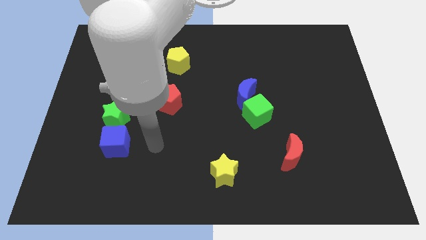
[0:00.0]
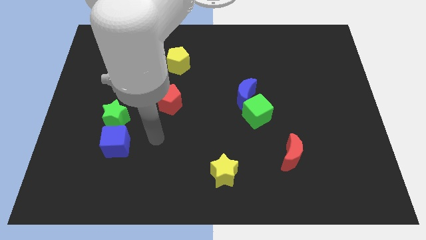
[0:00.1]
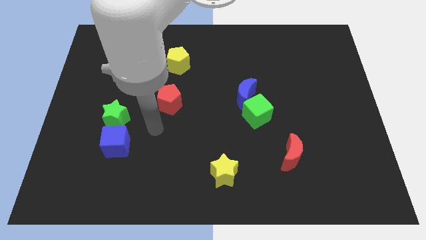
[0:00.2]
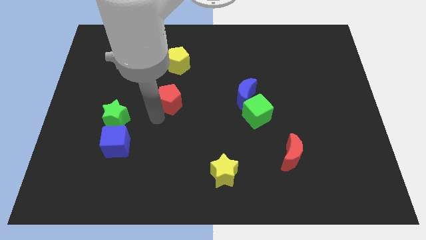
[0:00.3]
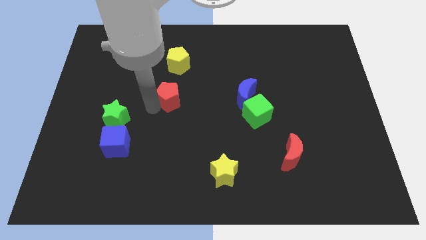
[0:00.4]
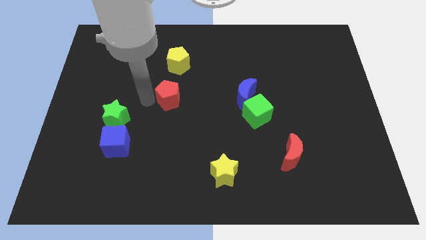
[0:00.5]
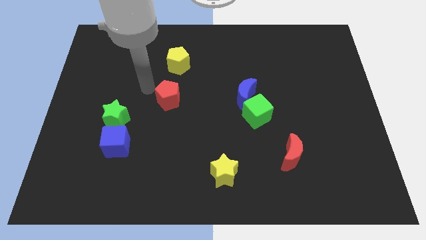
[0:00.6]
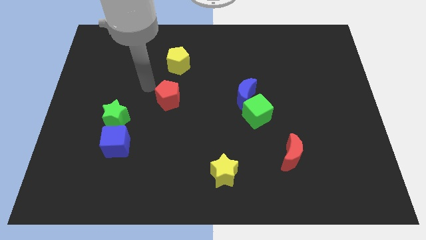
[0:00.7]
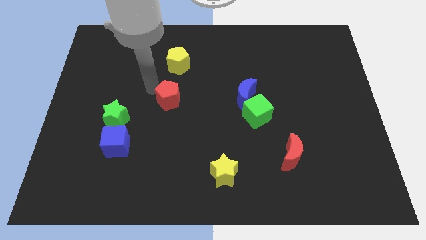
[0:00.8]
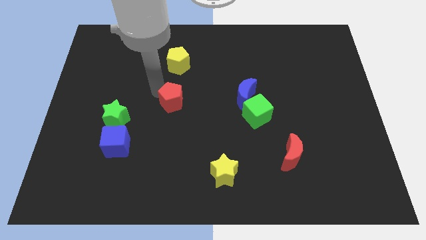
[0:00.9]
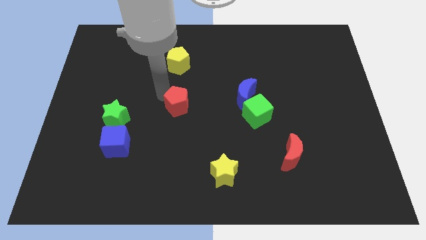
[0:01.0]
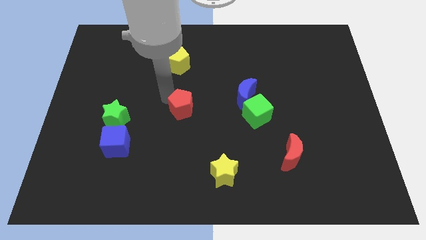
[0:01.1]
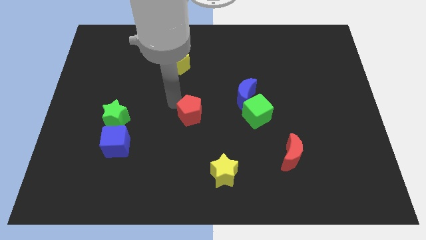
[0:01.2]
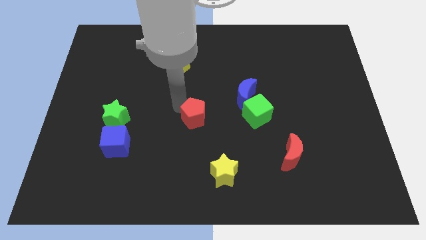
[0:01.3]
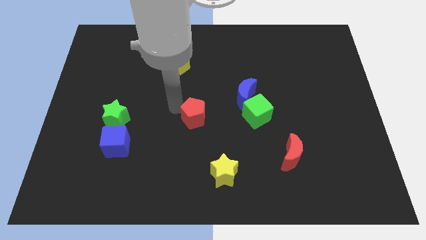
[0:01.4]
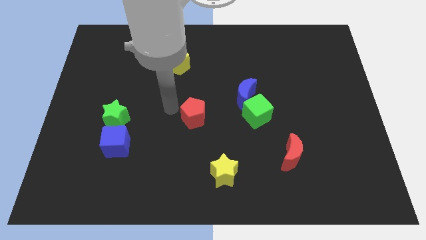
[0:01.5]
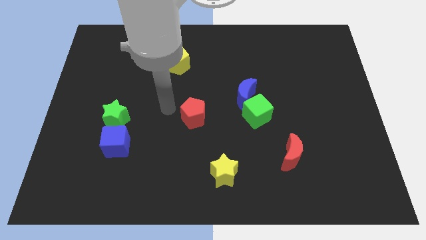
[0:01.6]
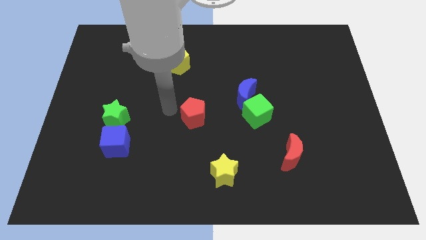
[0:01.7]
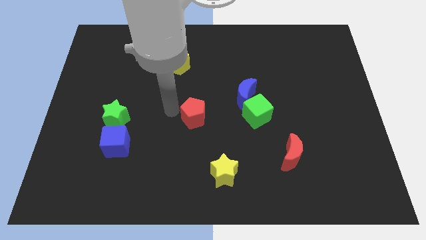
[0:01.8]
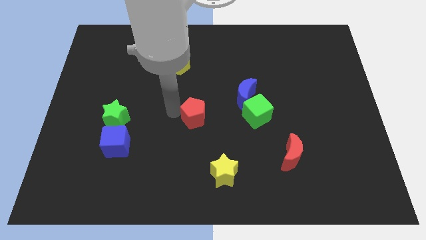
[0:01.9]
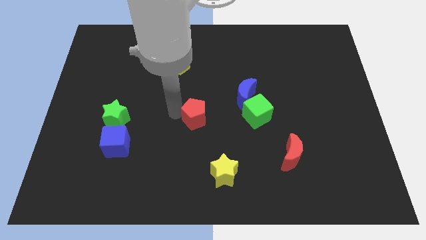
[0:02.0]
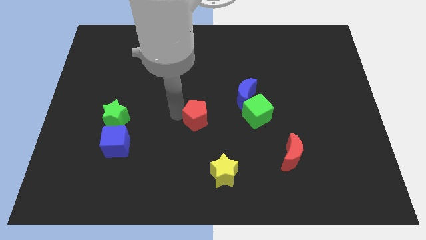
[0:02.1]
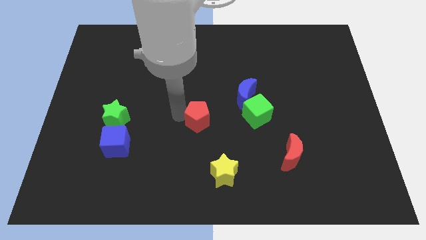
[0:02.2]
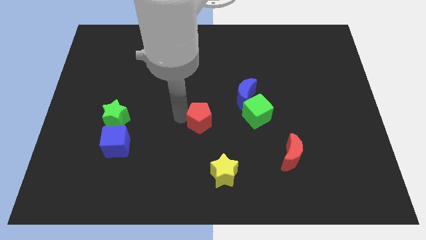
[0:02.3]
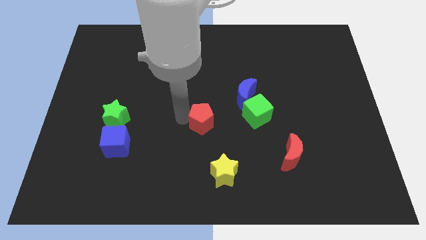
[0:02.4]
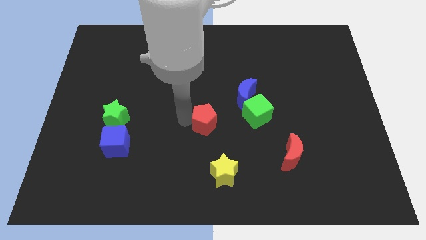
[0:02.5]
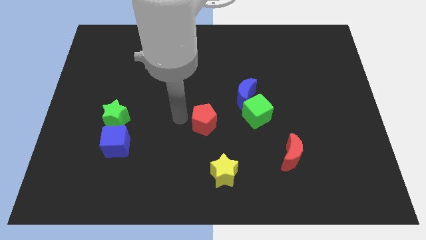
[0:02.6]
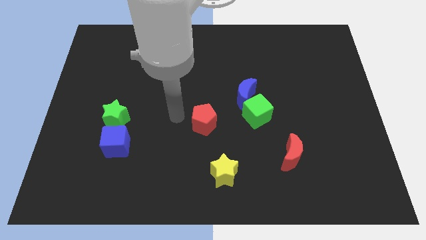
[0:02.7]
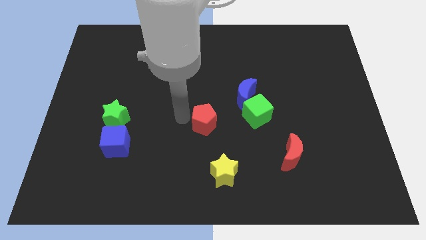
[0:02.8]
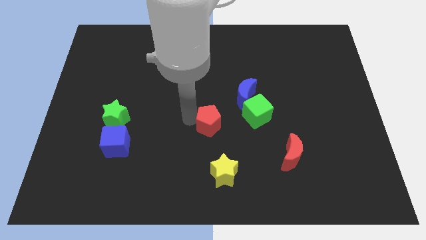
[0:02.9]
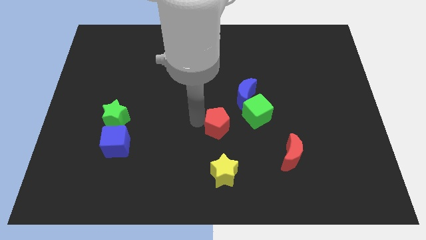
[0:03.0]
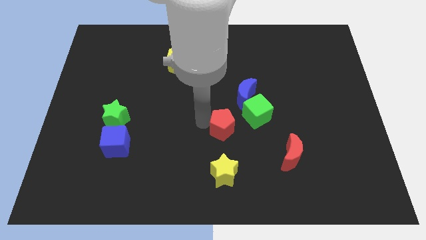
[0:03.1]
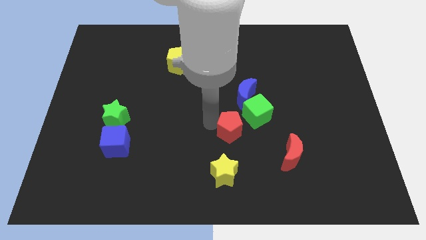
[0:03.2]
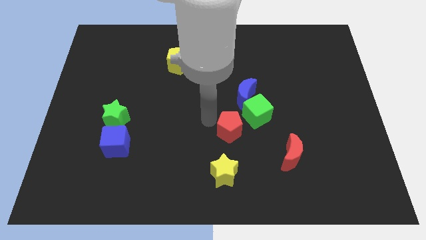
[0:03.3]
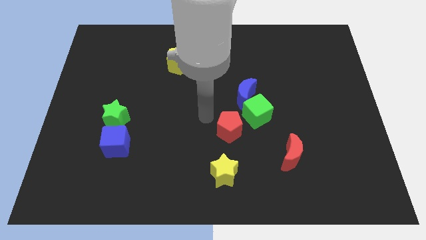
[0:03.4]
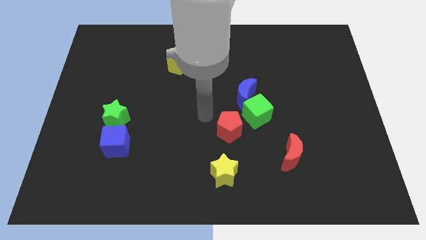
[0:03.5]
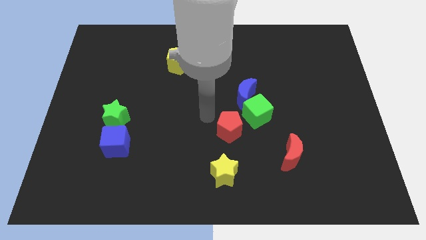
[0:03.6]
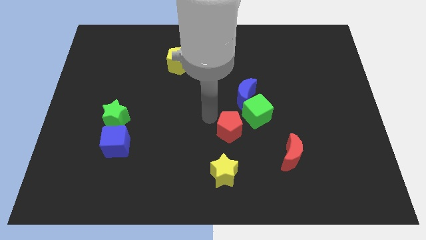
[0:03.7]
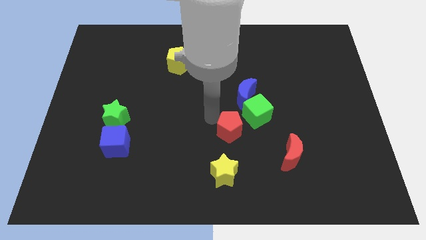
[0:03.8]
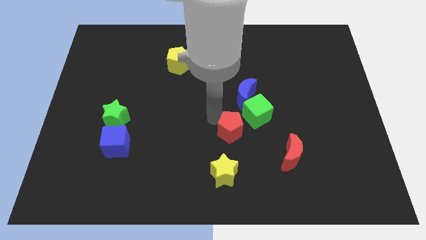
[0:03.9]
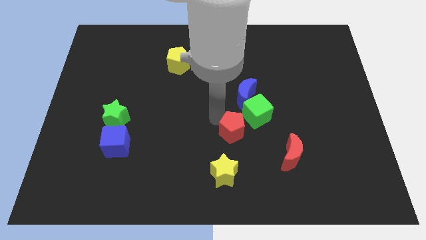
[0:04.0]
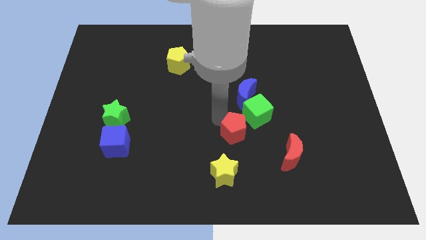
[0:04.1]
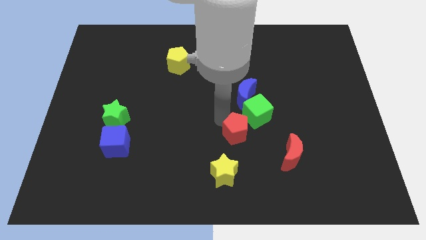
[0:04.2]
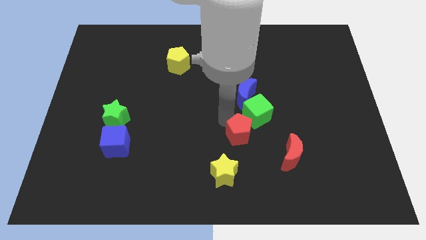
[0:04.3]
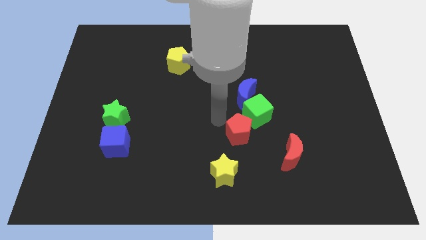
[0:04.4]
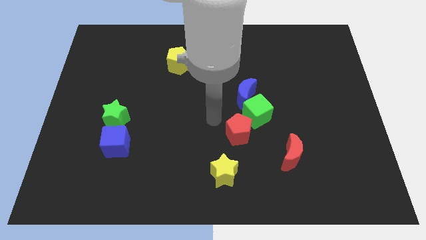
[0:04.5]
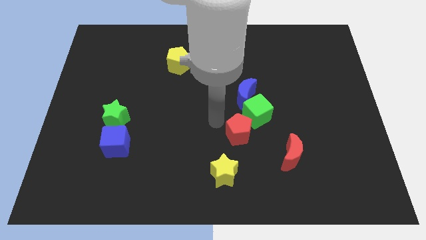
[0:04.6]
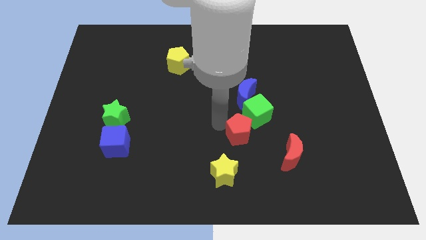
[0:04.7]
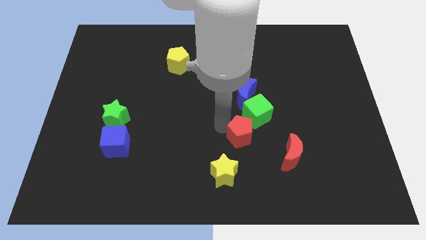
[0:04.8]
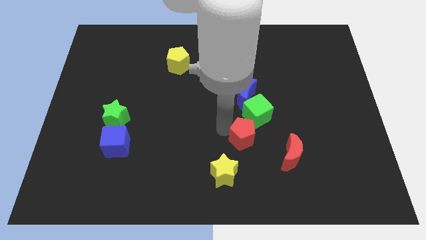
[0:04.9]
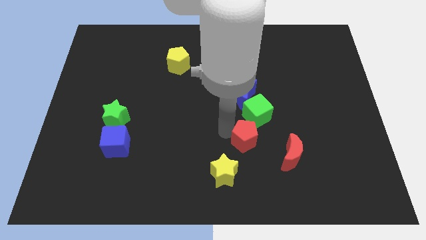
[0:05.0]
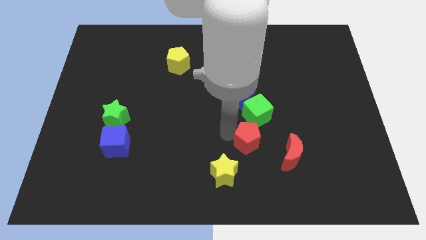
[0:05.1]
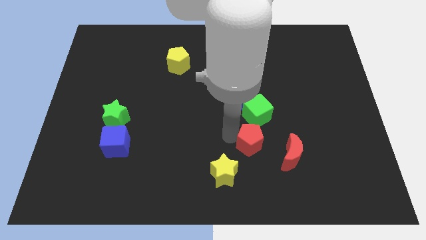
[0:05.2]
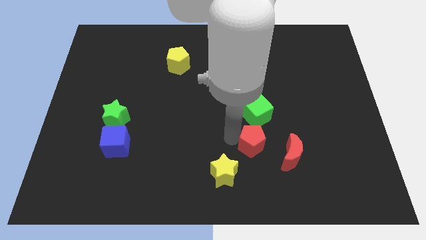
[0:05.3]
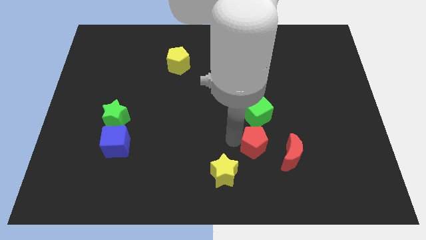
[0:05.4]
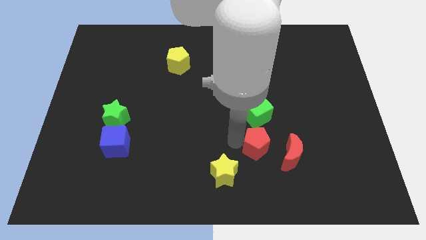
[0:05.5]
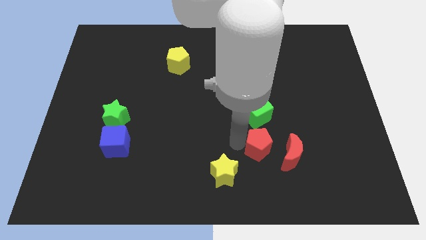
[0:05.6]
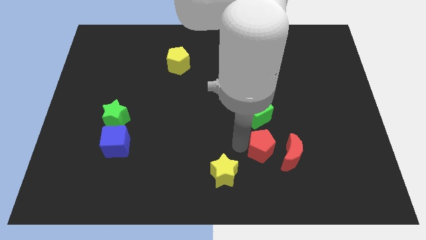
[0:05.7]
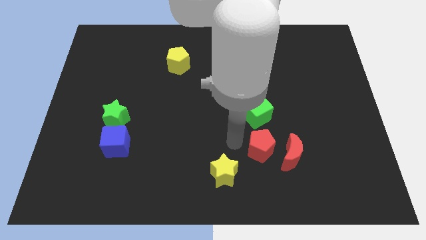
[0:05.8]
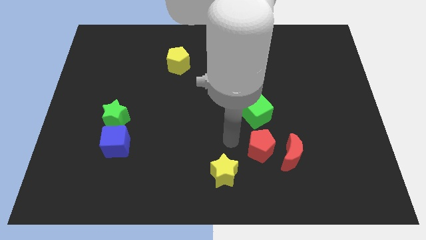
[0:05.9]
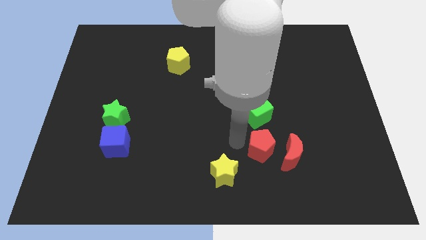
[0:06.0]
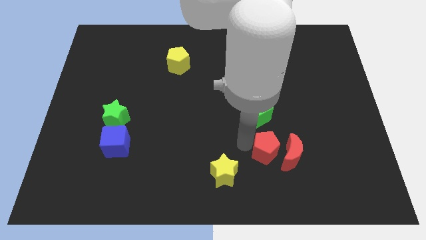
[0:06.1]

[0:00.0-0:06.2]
move the red pentagon close to the red moon
